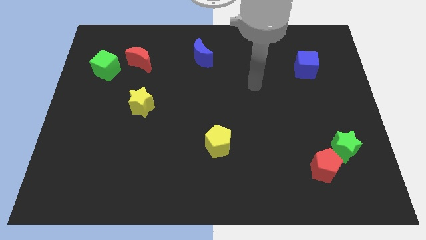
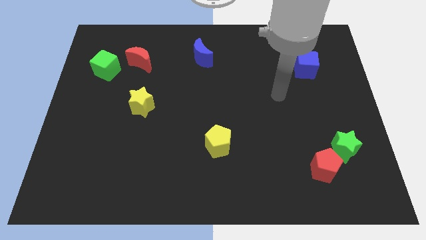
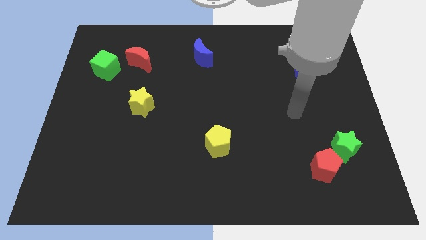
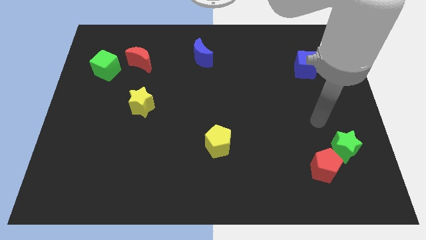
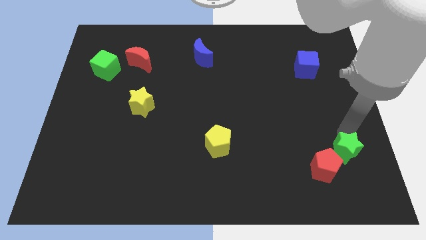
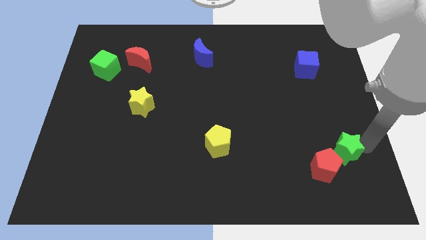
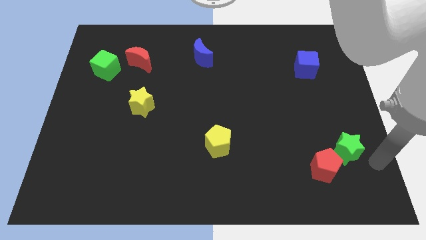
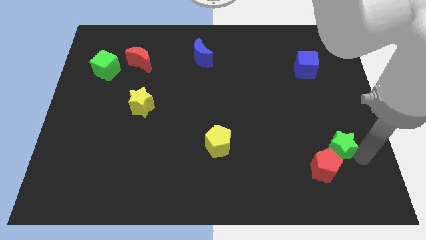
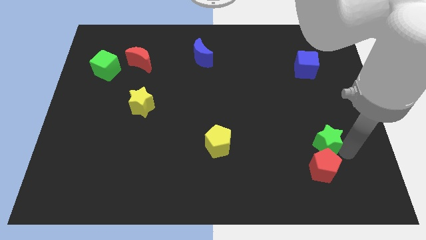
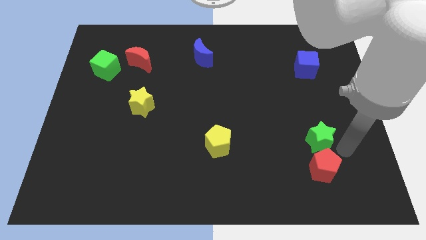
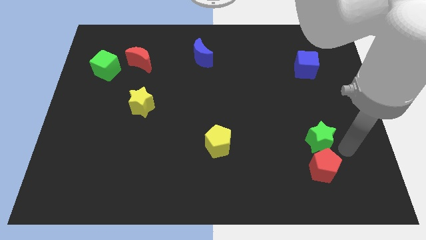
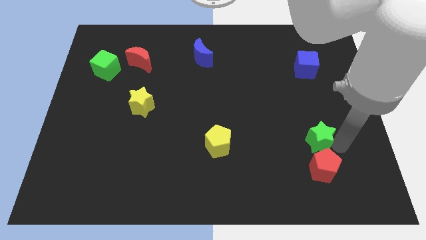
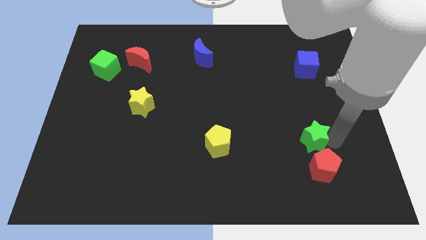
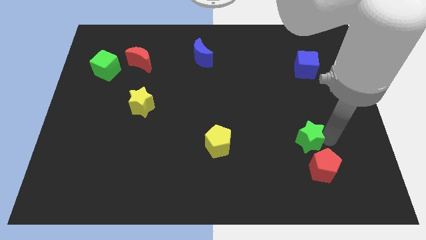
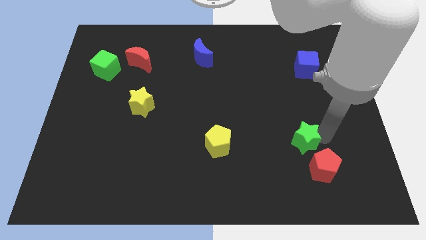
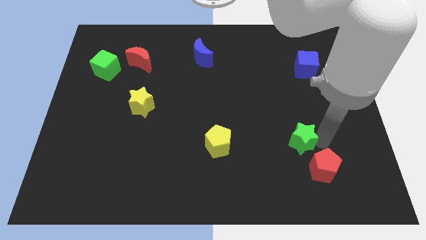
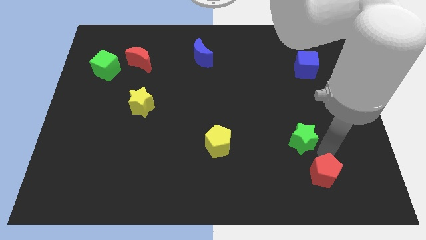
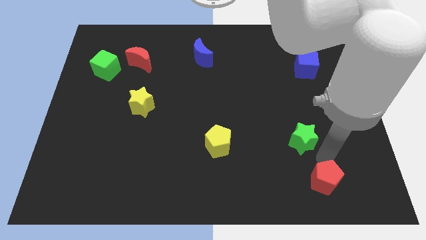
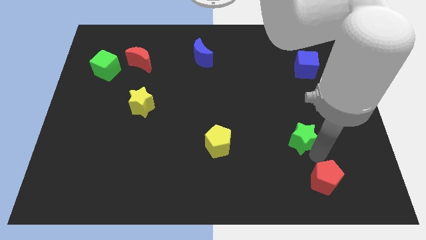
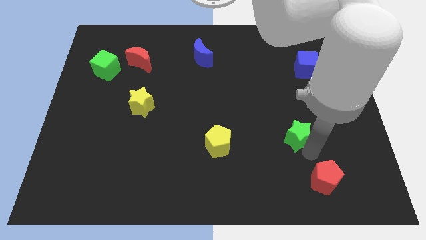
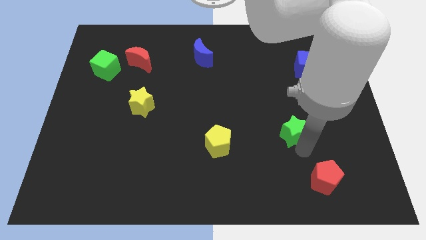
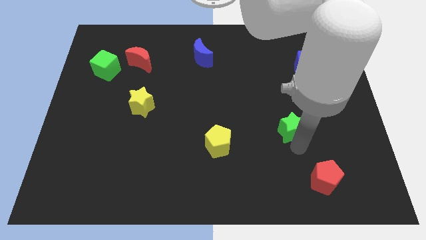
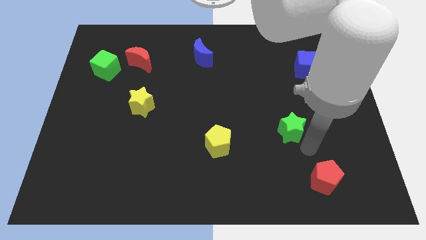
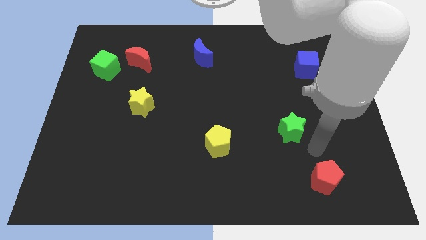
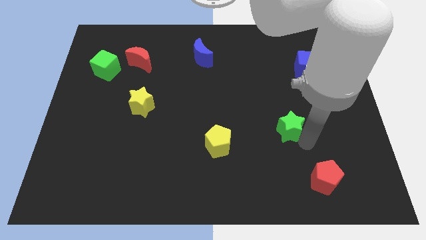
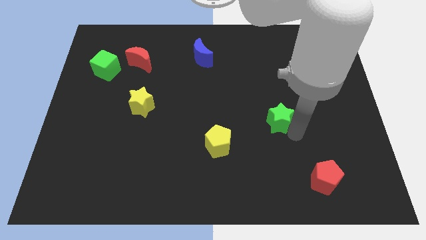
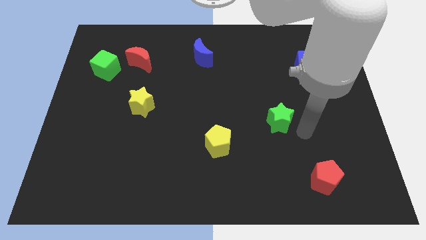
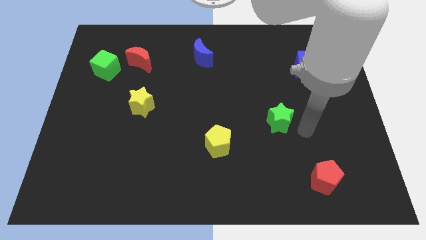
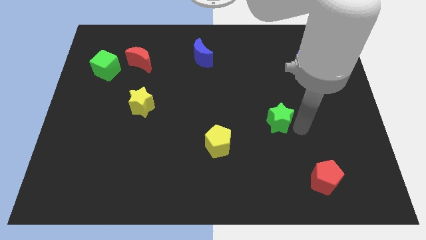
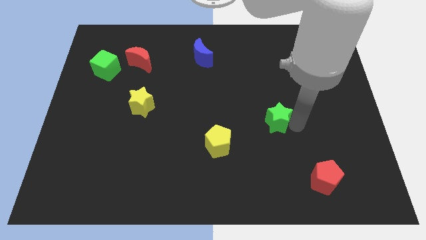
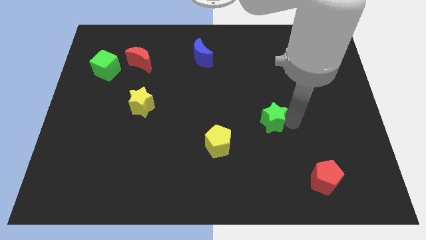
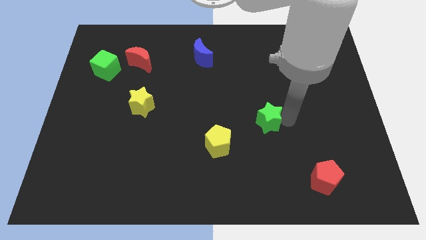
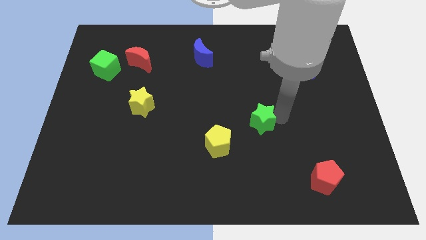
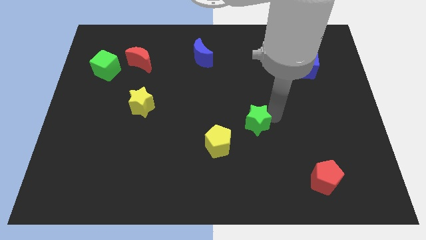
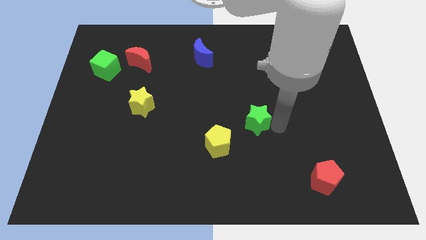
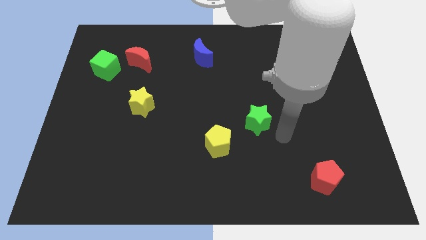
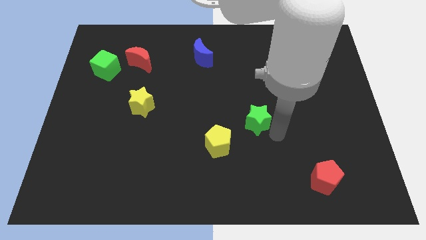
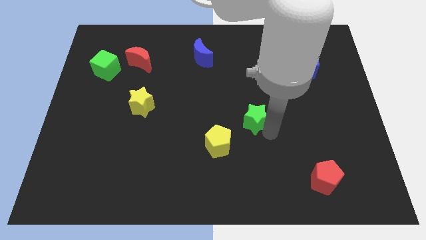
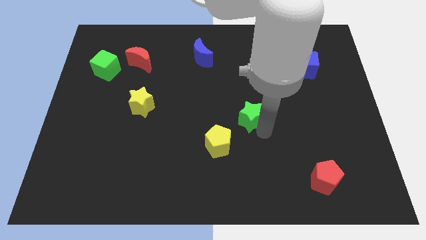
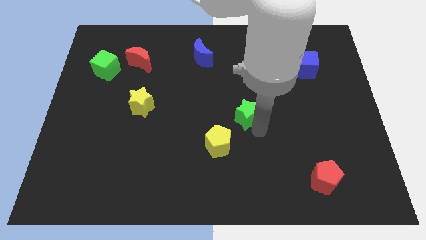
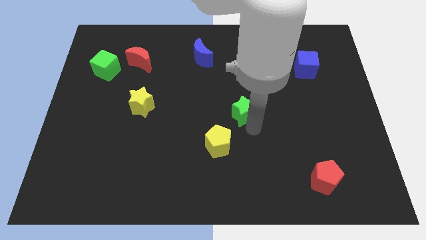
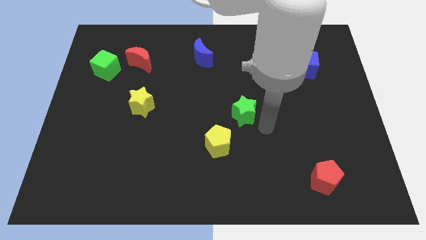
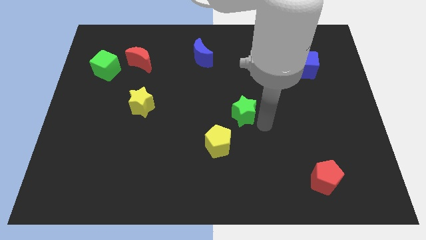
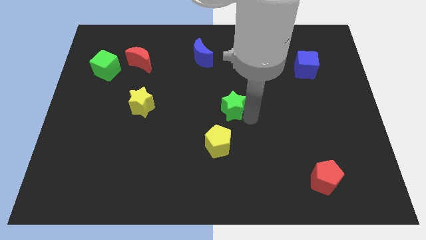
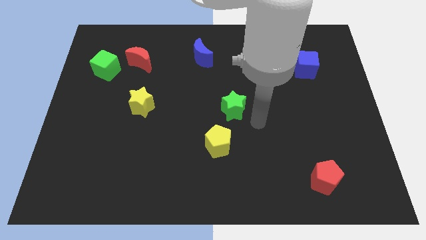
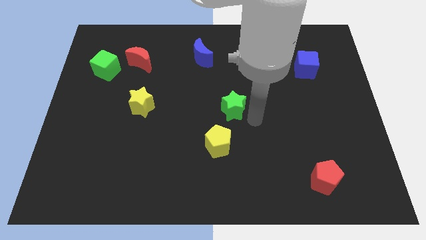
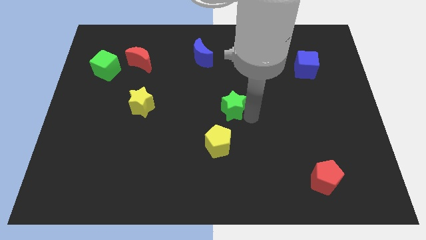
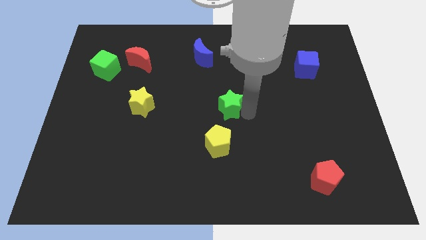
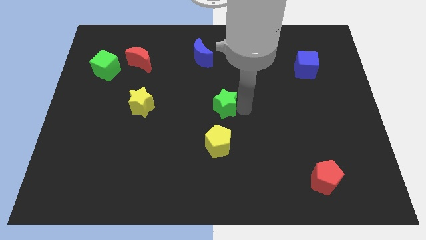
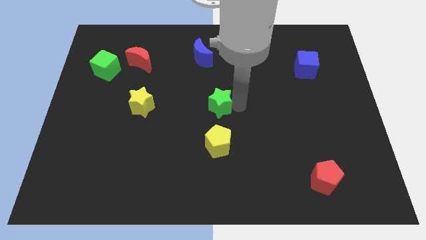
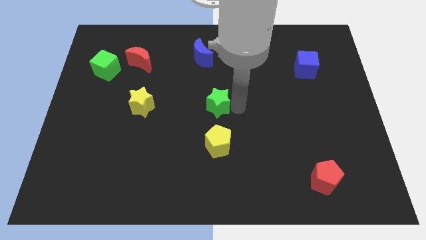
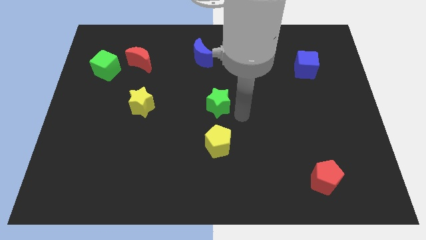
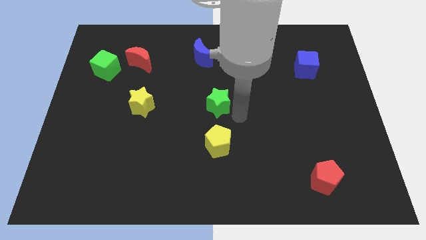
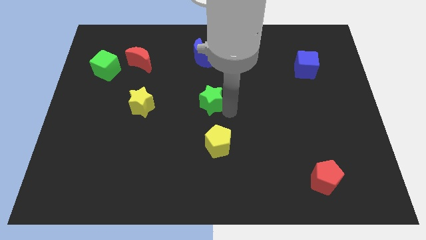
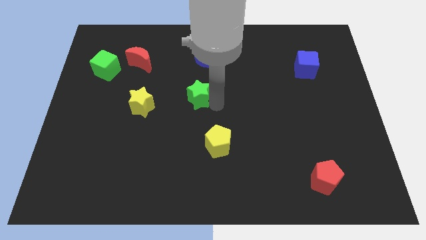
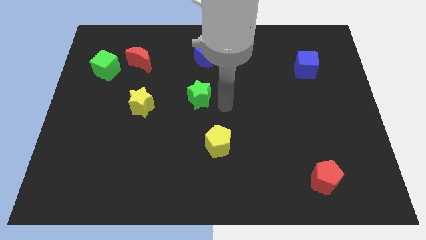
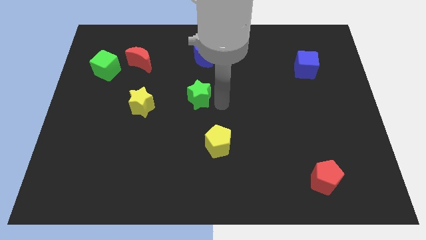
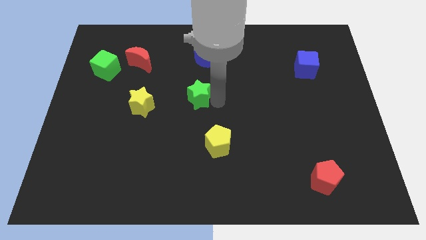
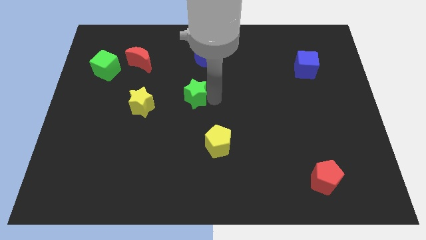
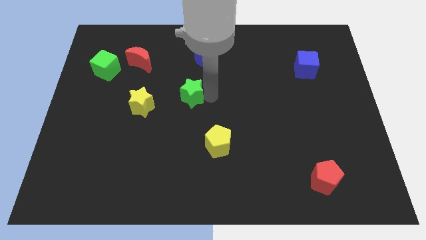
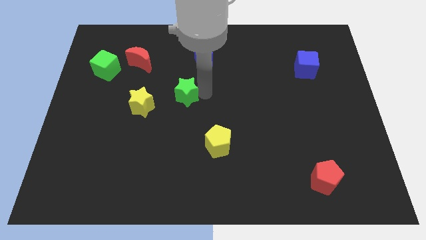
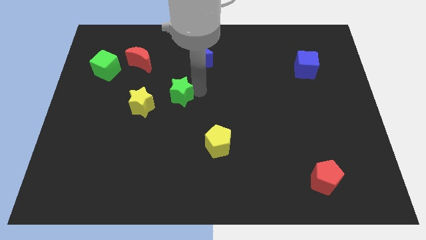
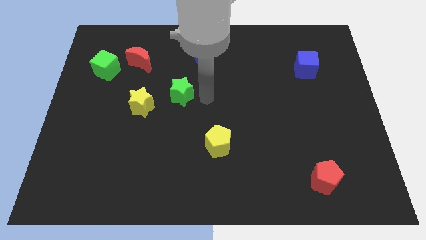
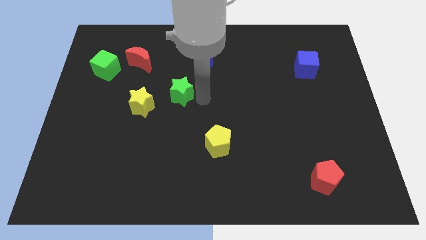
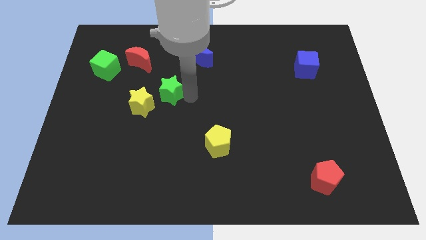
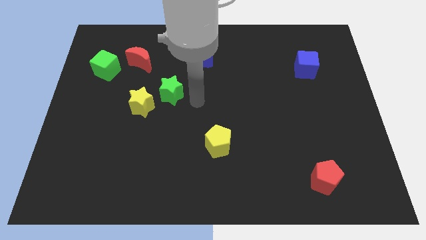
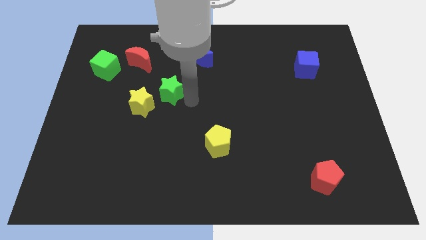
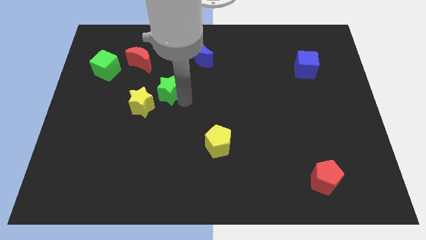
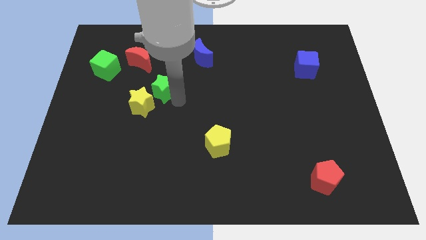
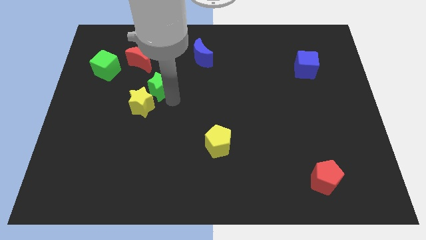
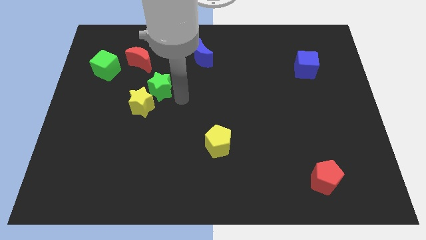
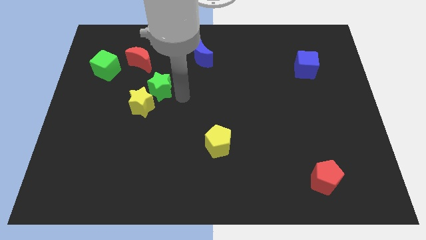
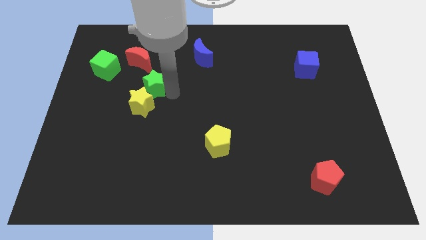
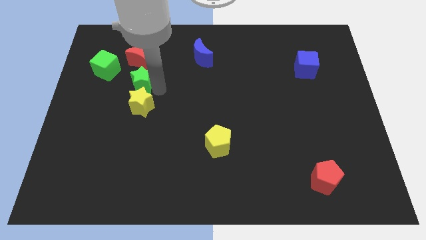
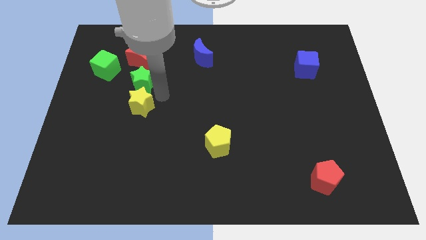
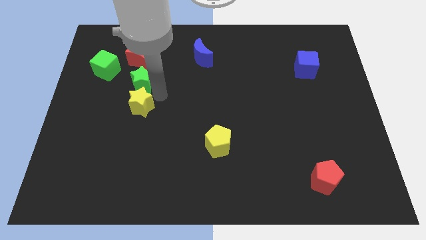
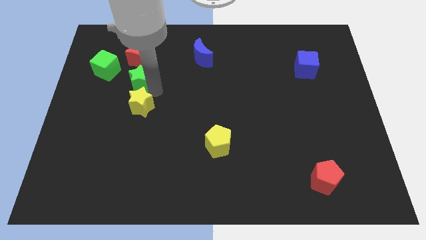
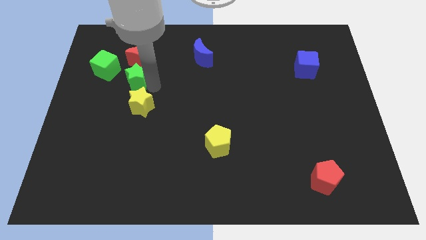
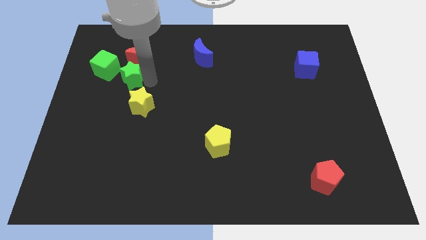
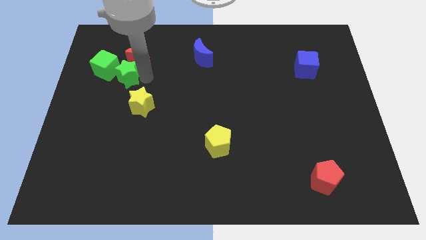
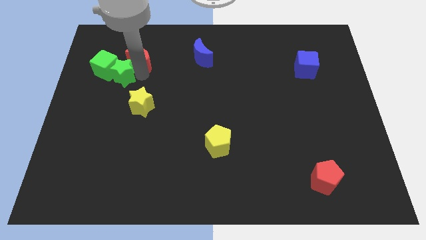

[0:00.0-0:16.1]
push the green star next to the green cube
